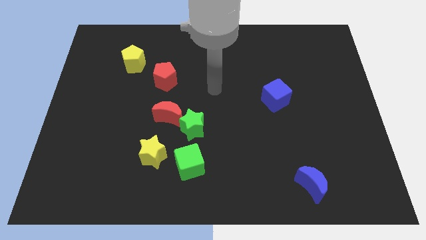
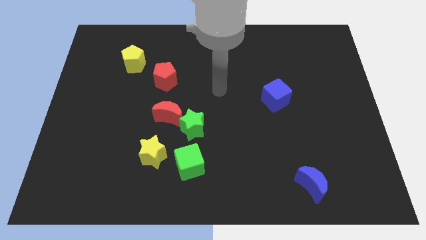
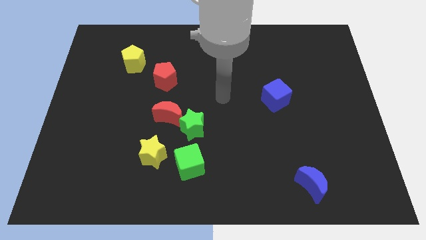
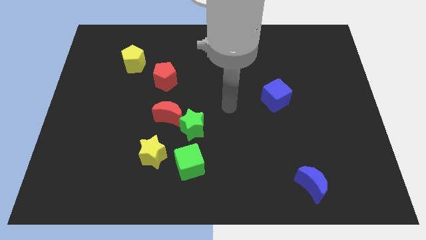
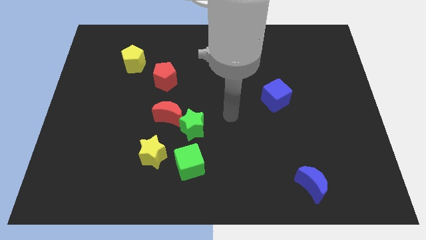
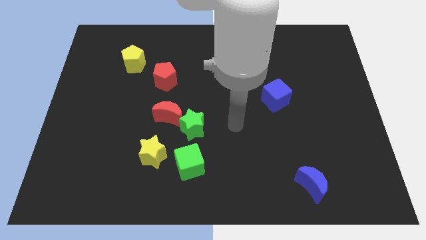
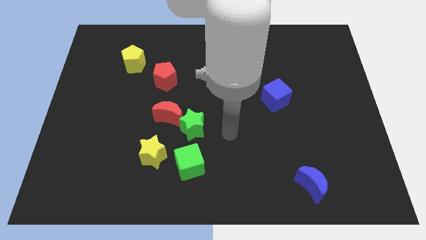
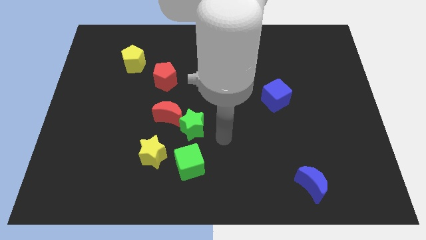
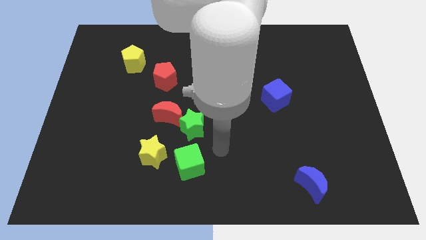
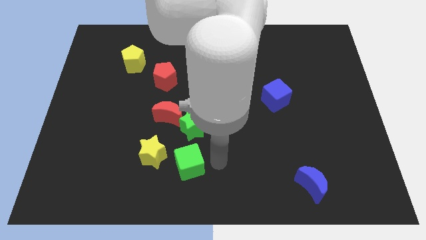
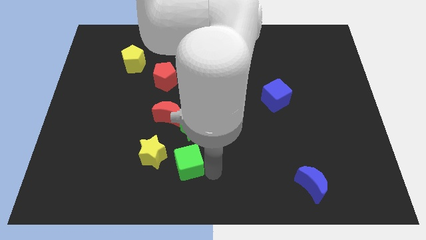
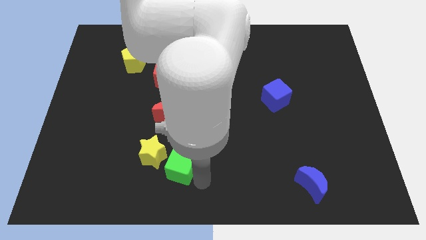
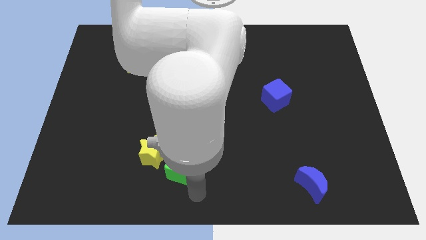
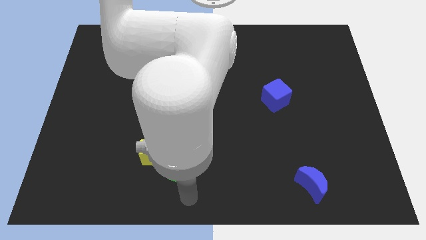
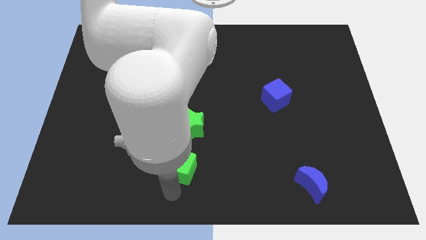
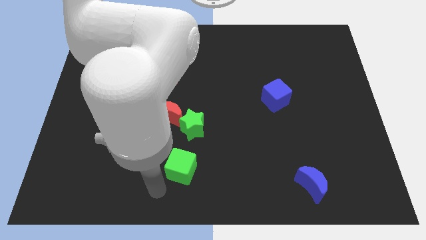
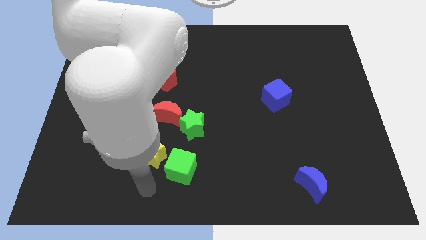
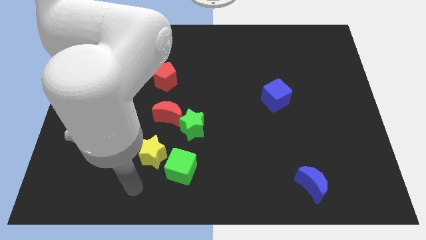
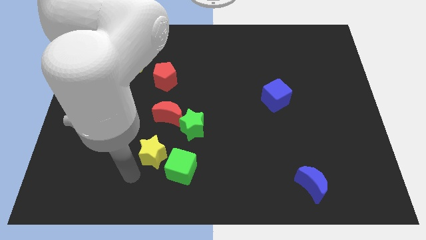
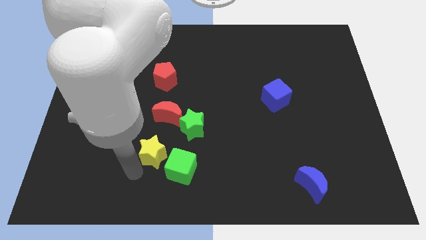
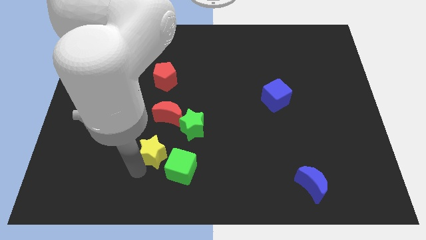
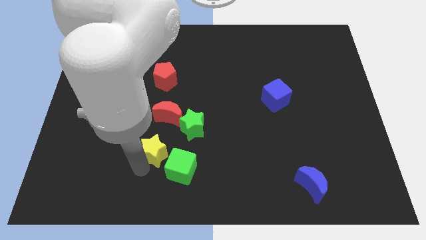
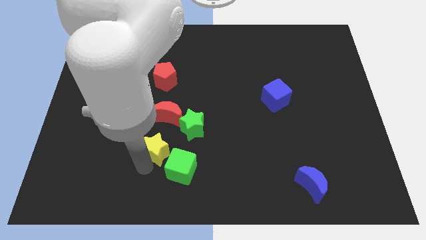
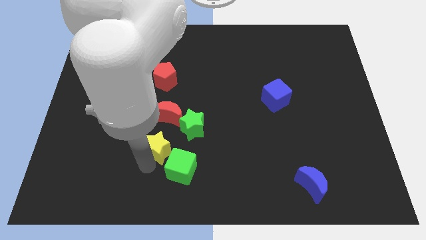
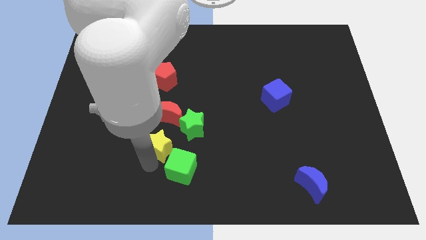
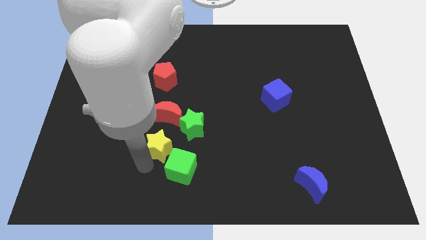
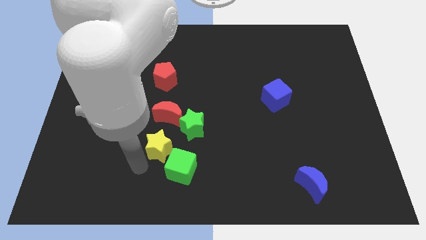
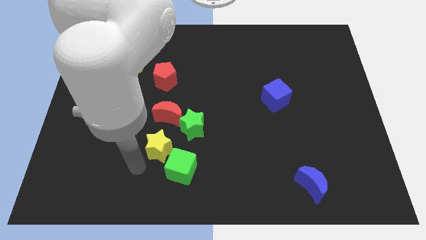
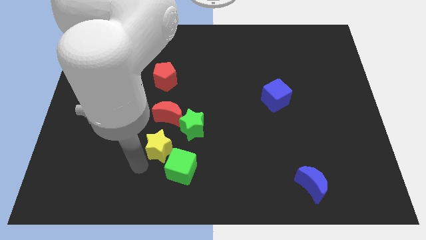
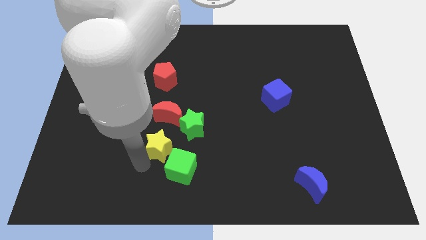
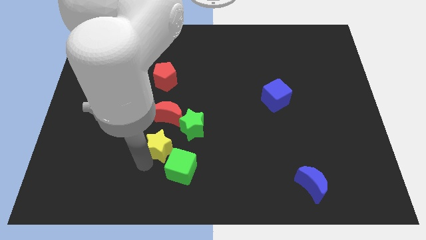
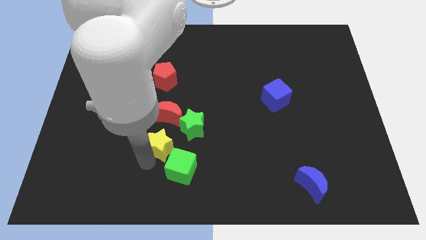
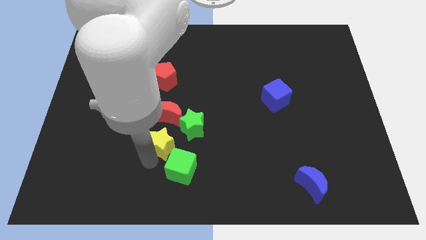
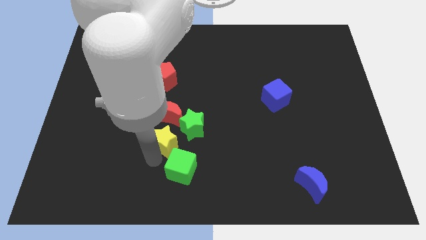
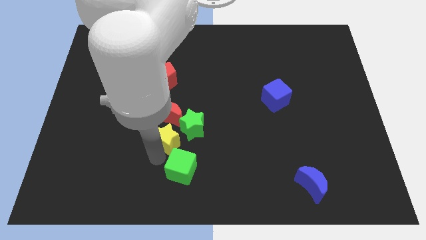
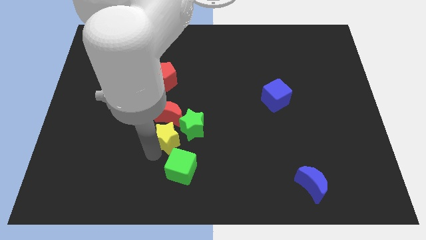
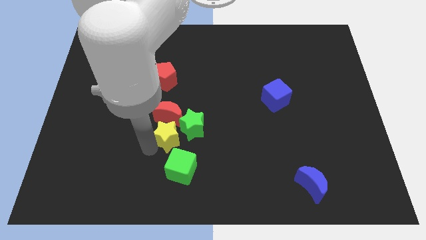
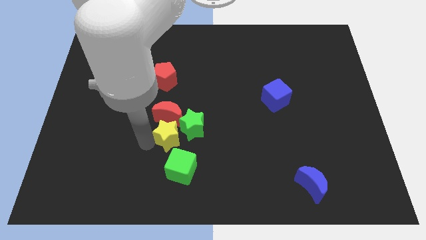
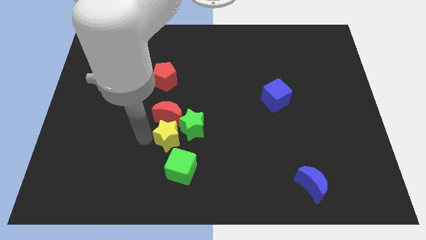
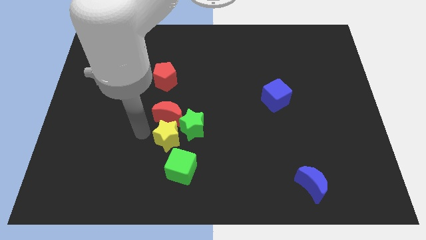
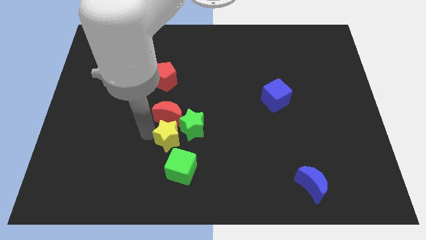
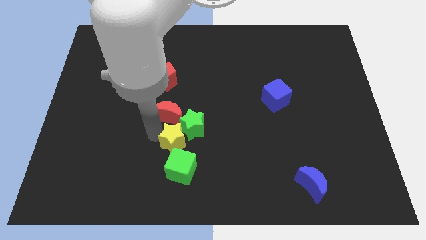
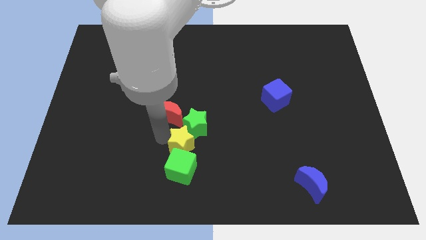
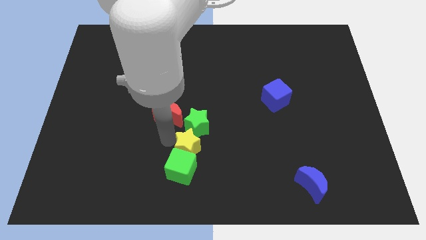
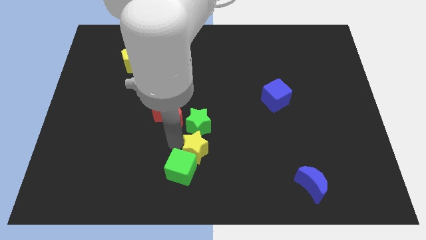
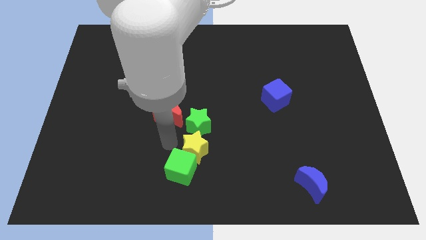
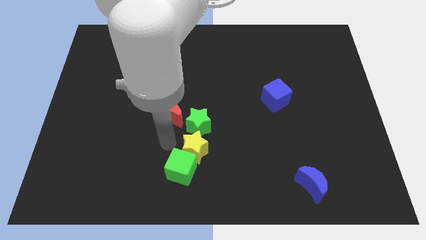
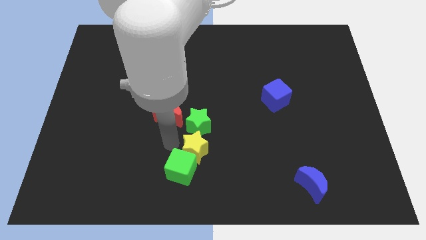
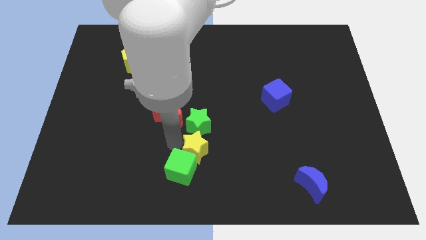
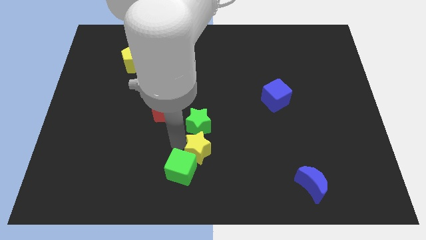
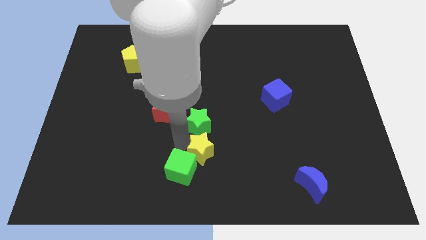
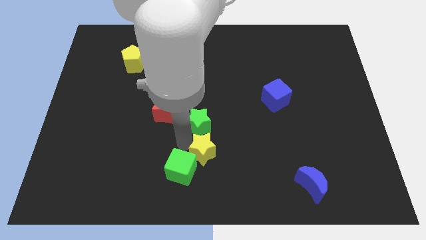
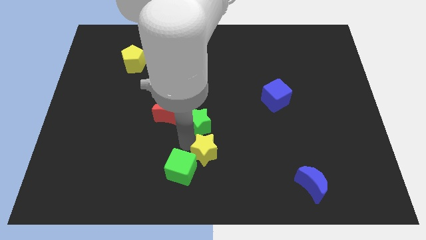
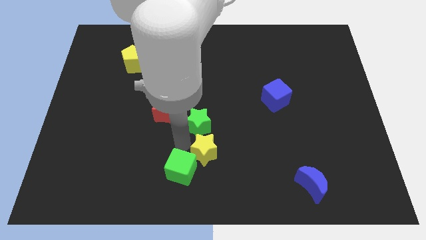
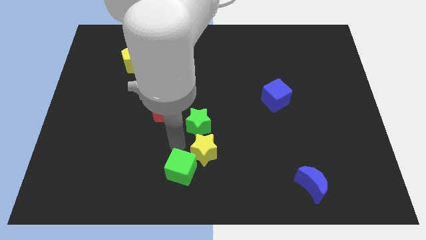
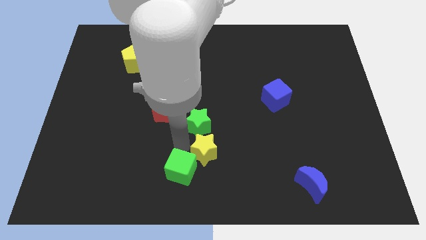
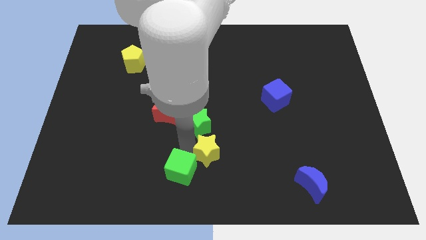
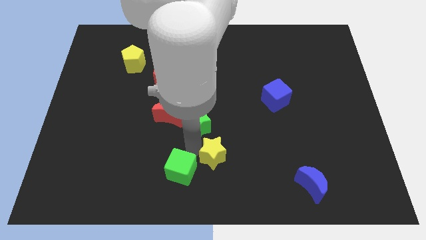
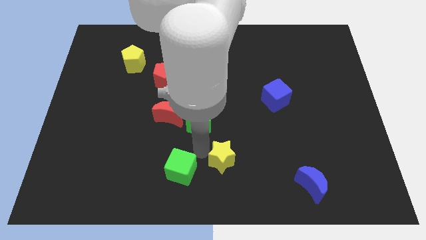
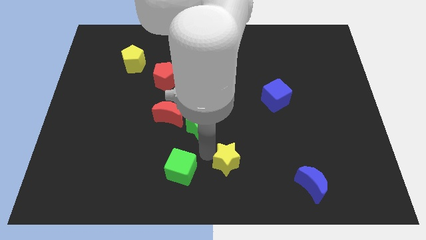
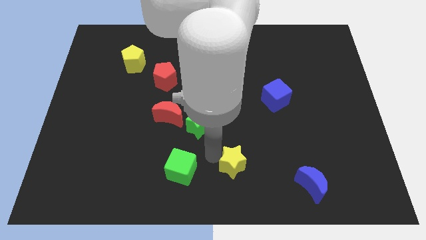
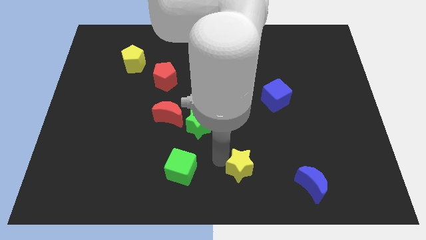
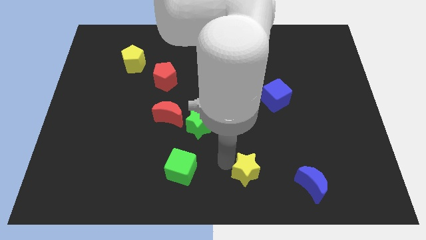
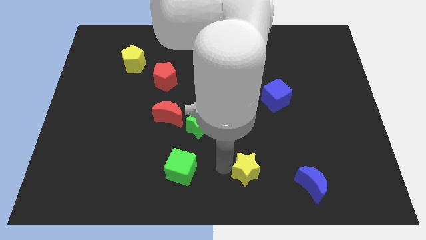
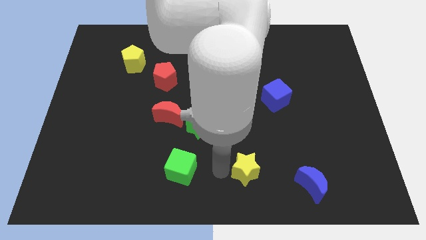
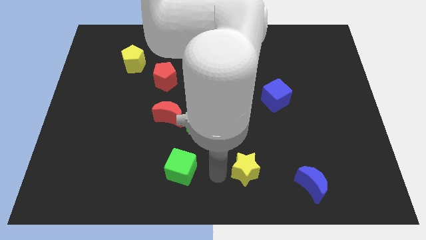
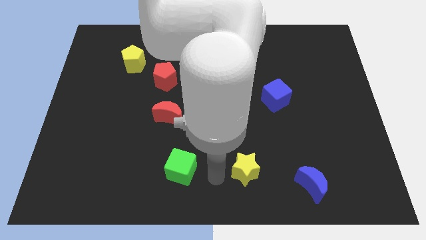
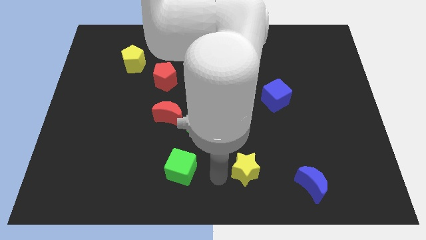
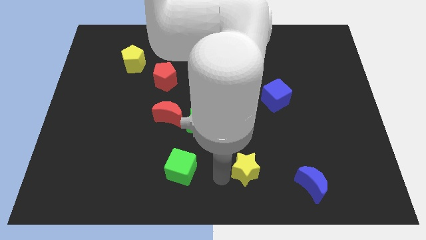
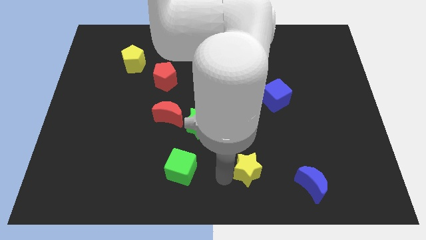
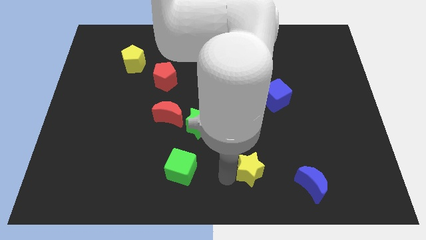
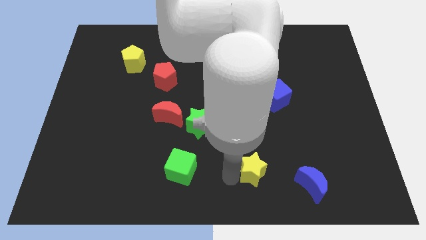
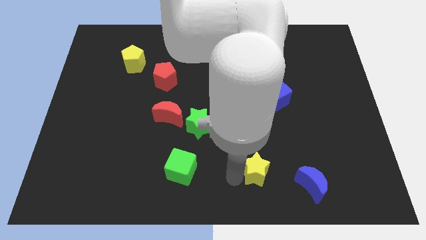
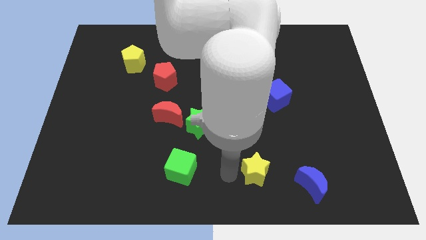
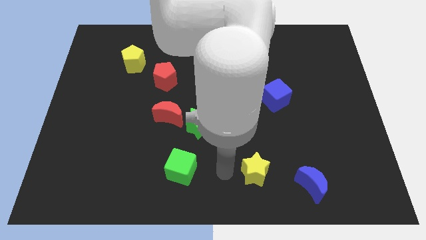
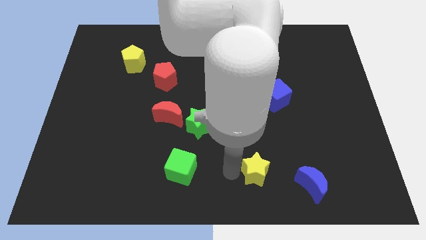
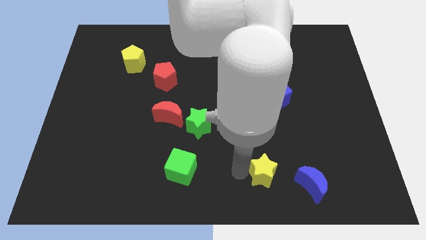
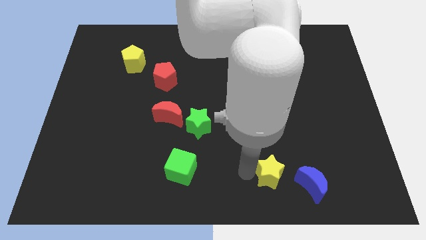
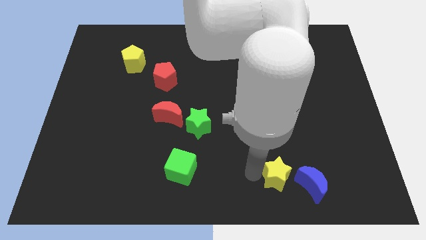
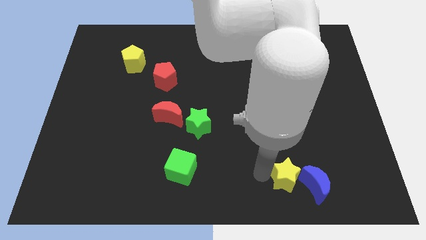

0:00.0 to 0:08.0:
push the yellow star close to the blue moon
